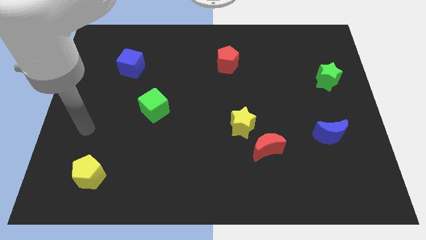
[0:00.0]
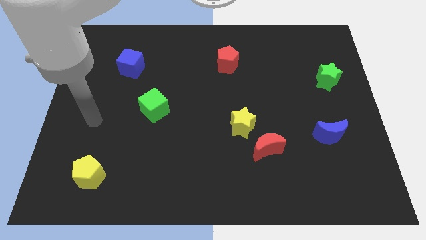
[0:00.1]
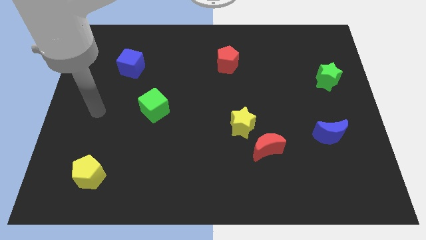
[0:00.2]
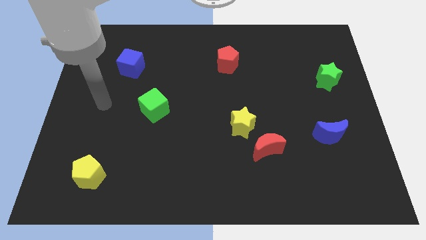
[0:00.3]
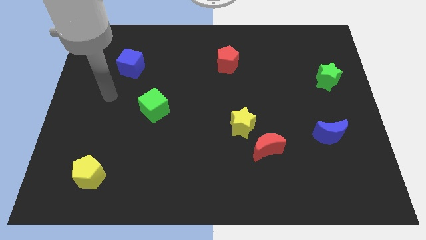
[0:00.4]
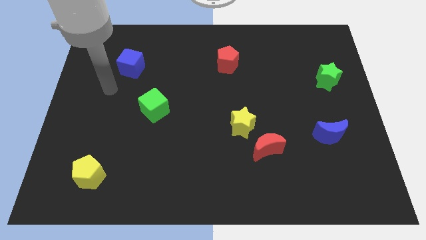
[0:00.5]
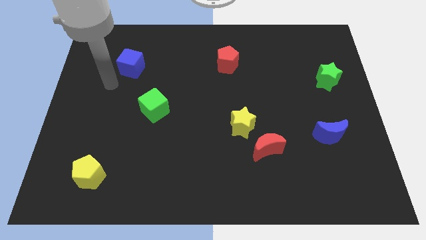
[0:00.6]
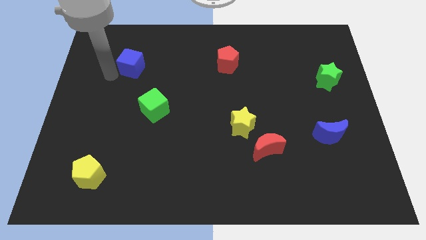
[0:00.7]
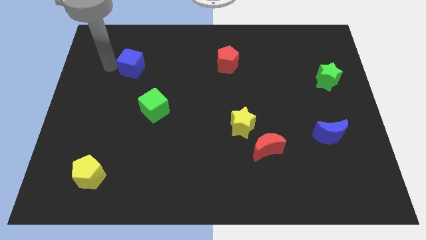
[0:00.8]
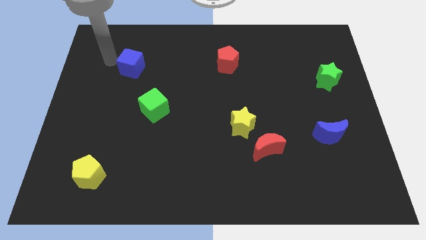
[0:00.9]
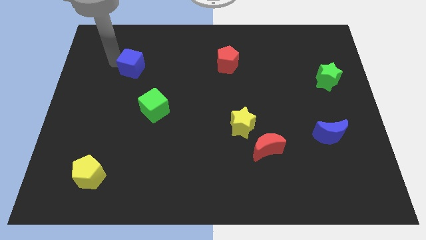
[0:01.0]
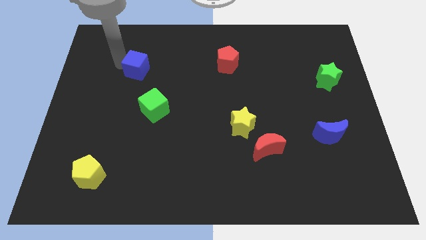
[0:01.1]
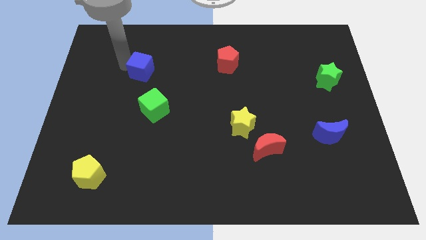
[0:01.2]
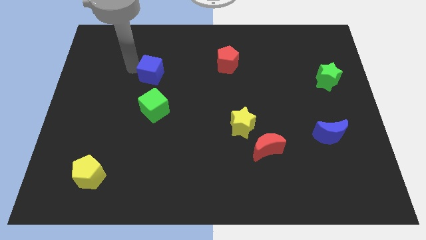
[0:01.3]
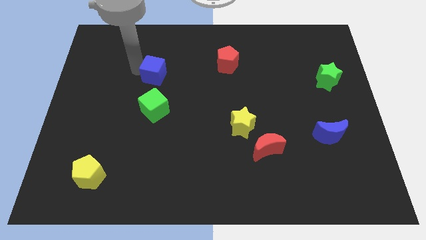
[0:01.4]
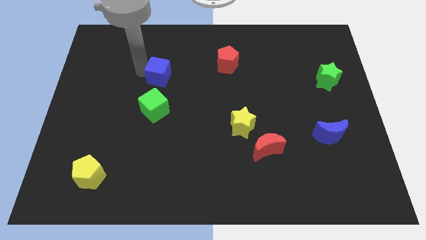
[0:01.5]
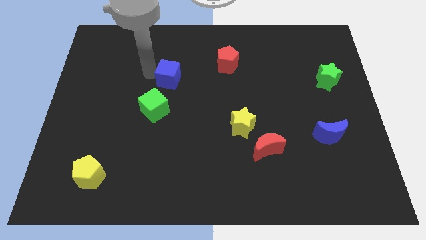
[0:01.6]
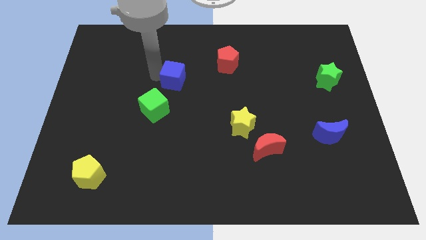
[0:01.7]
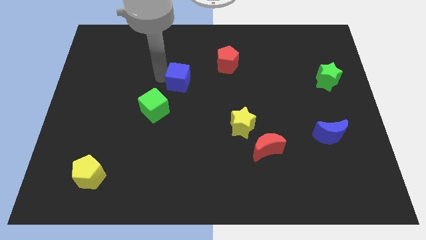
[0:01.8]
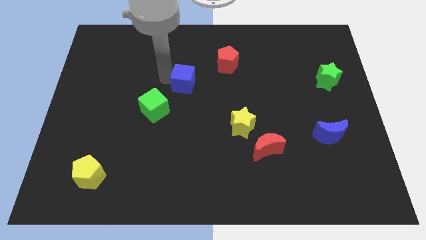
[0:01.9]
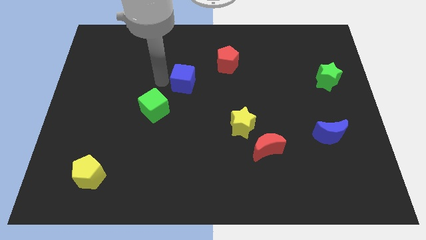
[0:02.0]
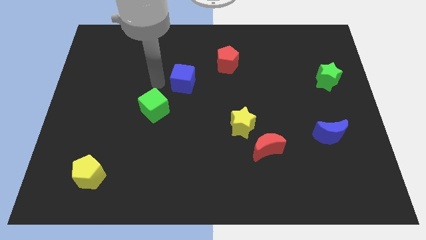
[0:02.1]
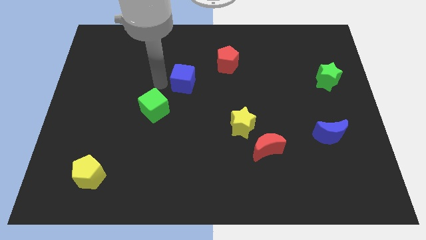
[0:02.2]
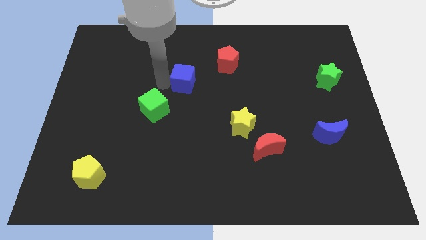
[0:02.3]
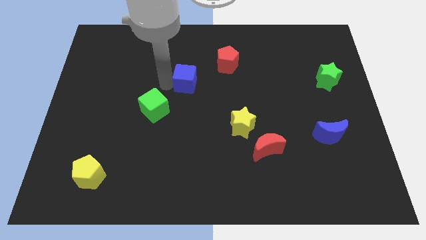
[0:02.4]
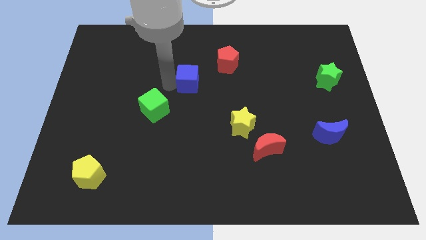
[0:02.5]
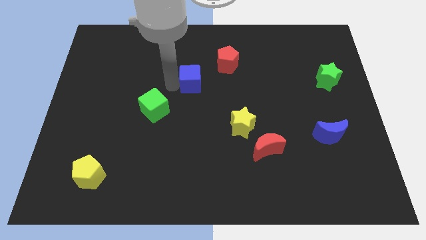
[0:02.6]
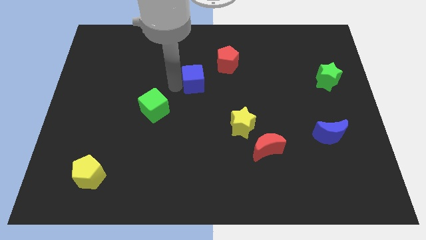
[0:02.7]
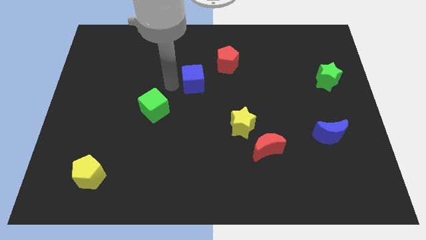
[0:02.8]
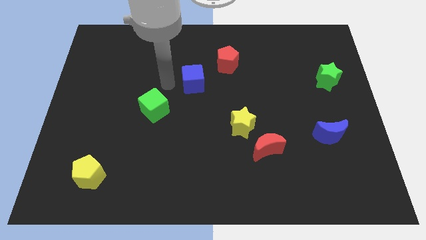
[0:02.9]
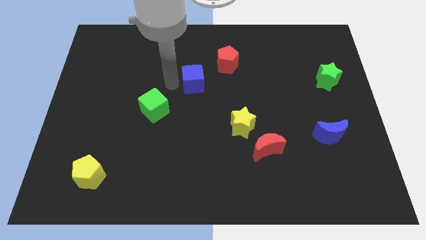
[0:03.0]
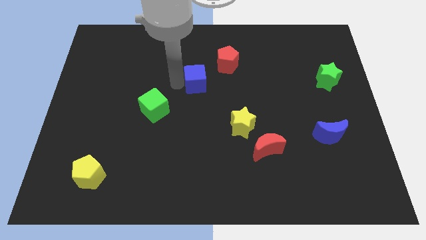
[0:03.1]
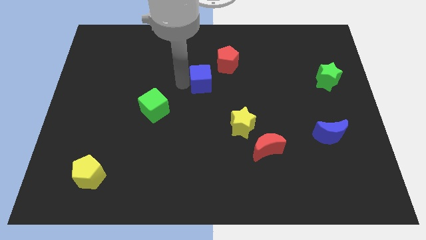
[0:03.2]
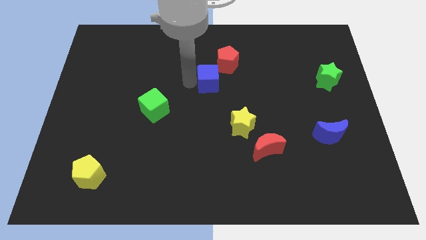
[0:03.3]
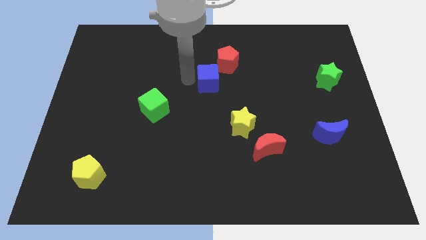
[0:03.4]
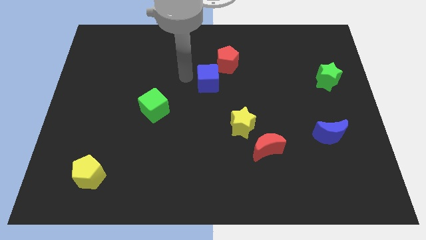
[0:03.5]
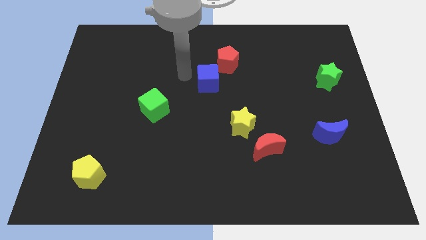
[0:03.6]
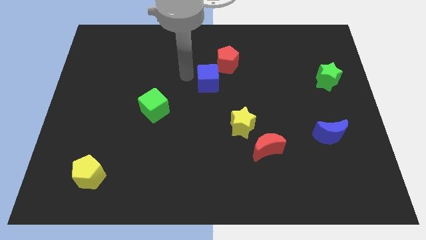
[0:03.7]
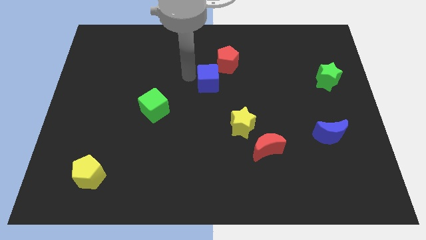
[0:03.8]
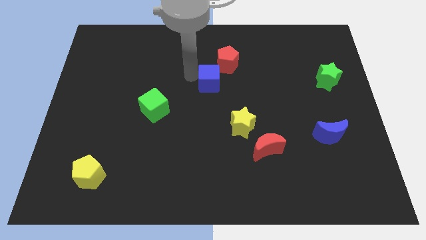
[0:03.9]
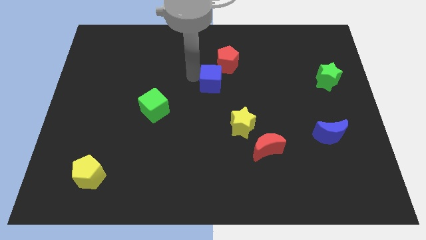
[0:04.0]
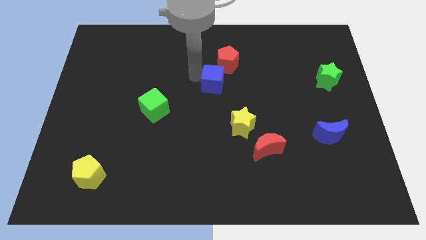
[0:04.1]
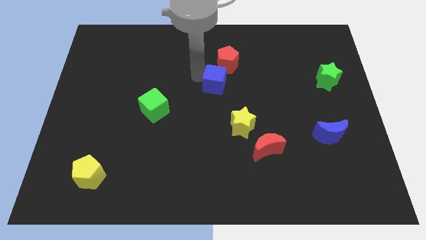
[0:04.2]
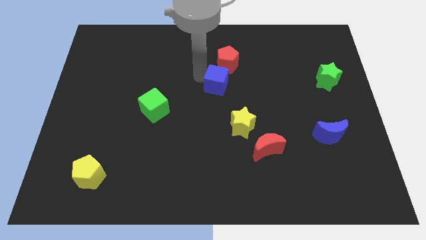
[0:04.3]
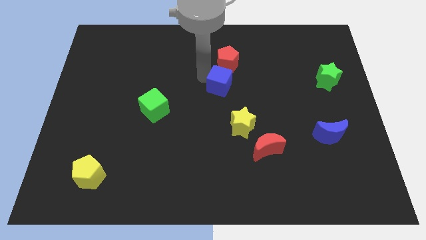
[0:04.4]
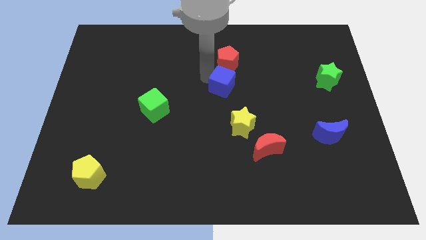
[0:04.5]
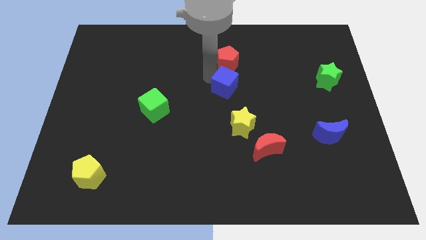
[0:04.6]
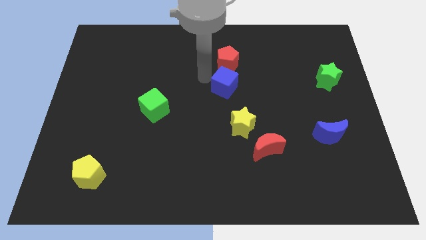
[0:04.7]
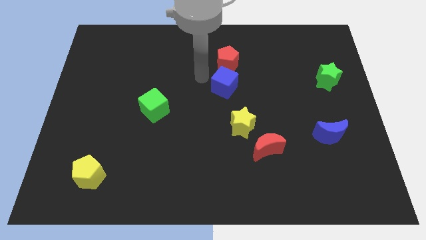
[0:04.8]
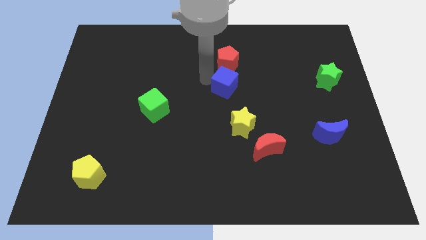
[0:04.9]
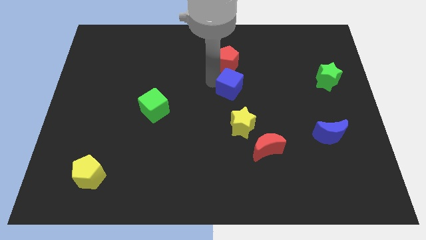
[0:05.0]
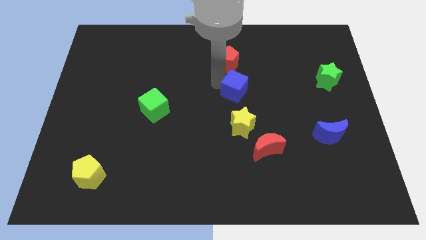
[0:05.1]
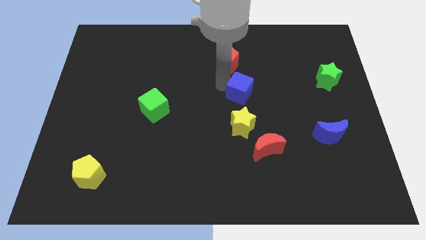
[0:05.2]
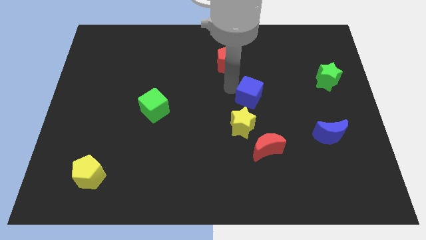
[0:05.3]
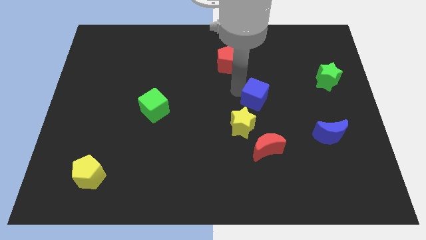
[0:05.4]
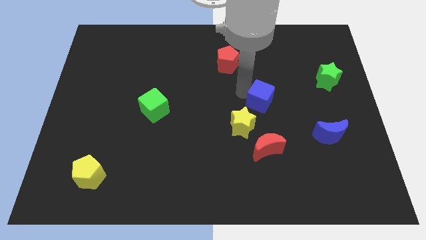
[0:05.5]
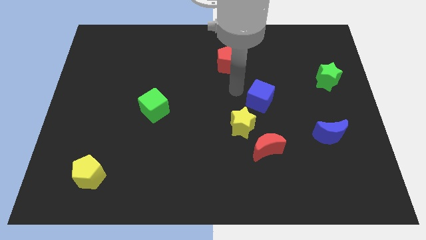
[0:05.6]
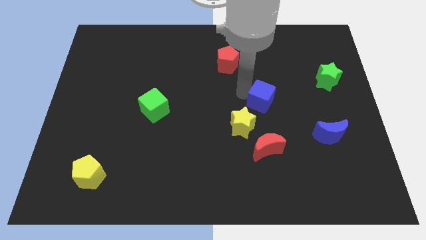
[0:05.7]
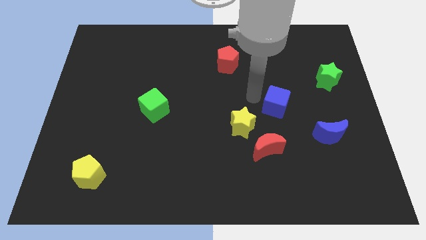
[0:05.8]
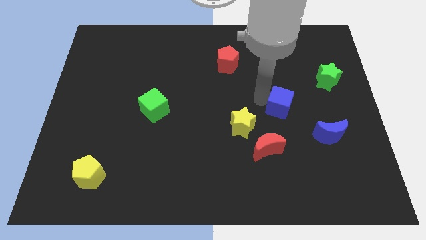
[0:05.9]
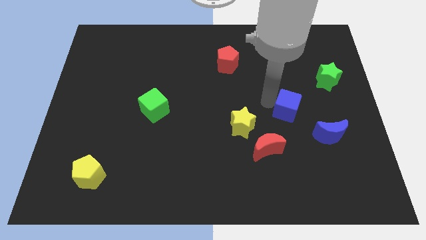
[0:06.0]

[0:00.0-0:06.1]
slide the blue cube to the top left of the blue moon

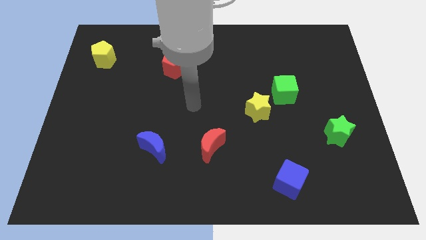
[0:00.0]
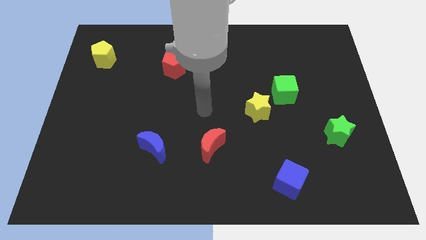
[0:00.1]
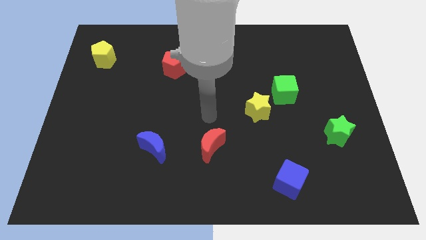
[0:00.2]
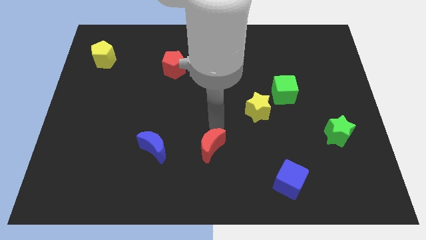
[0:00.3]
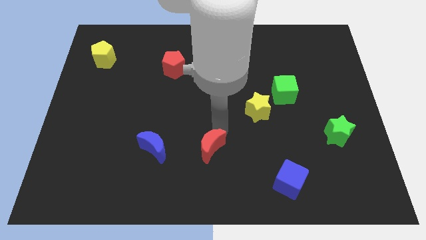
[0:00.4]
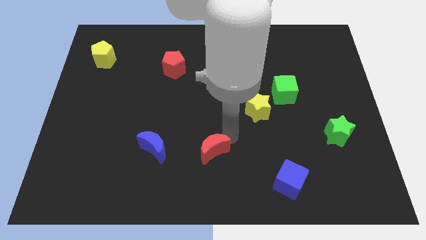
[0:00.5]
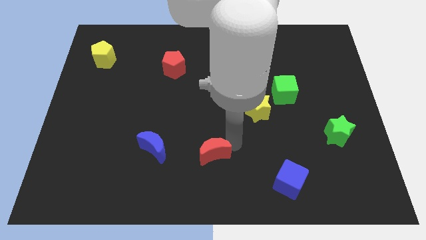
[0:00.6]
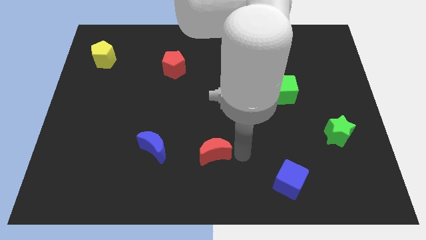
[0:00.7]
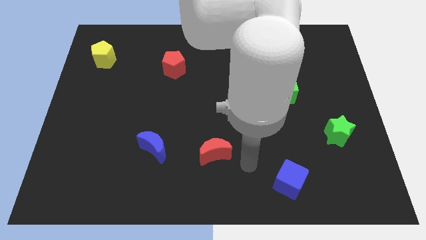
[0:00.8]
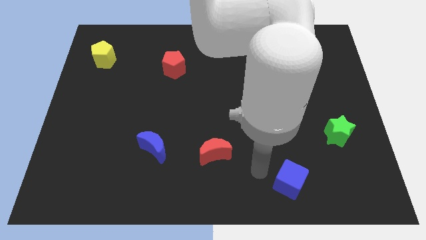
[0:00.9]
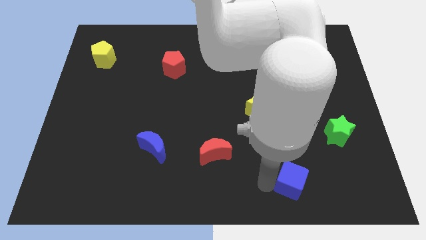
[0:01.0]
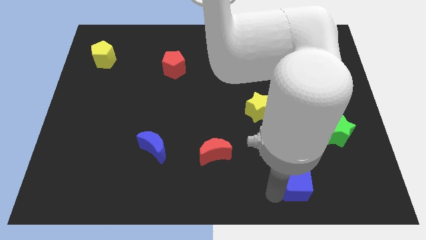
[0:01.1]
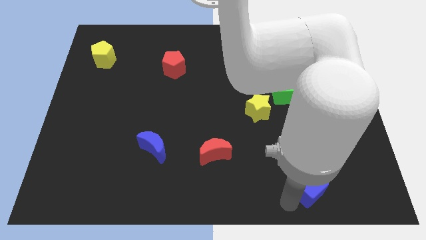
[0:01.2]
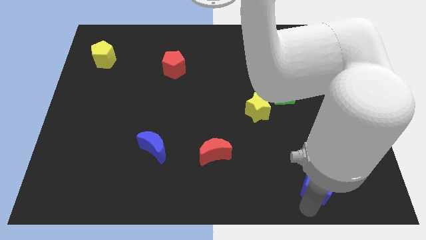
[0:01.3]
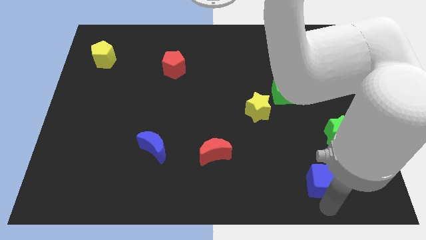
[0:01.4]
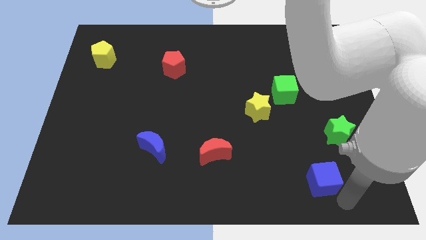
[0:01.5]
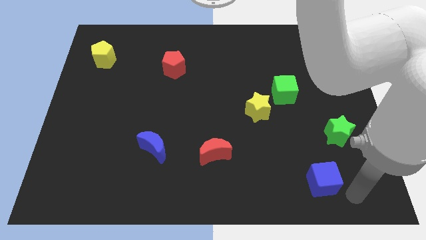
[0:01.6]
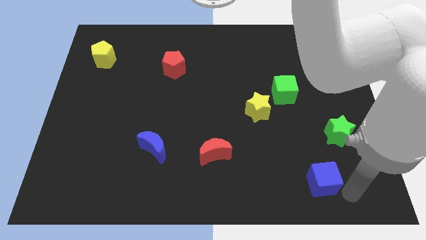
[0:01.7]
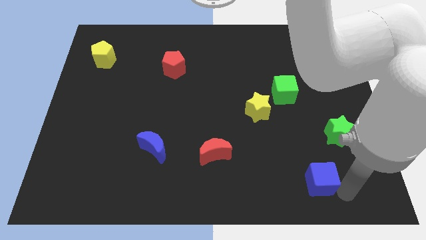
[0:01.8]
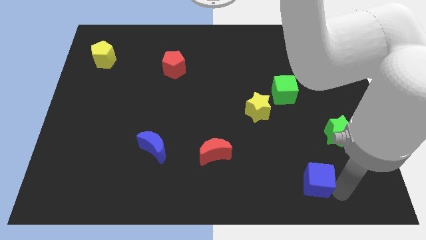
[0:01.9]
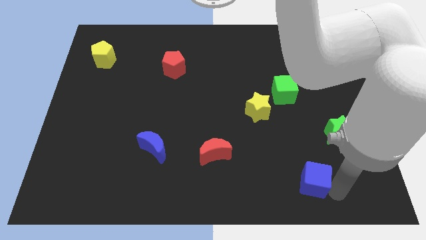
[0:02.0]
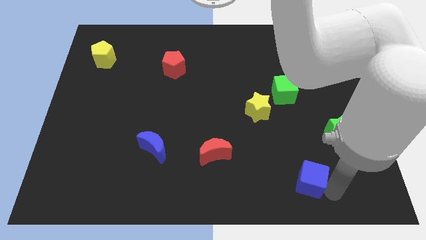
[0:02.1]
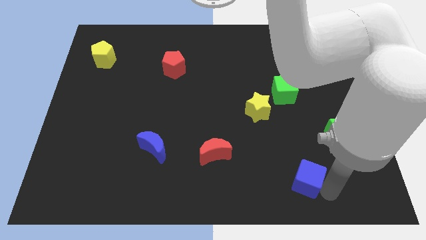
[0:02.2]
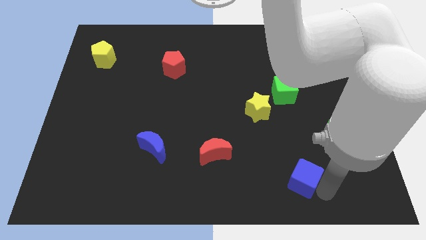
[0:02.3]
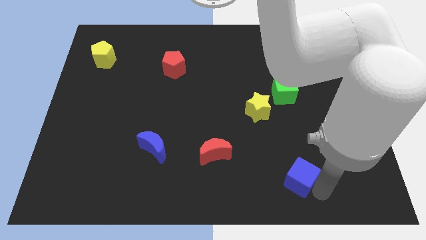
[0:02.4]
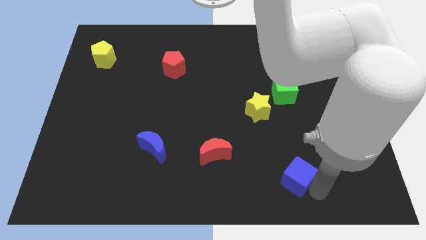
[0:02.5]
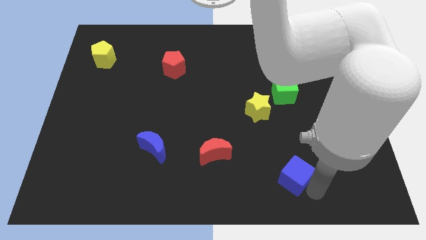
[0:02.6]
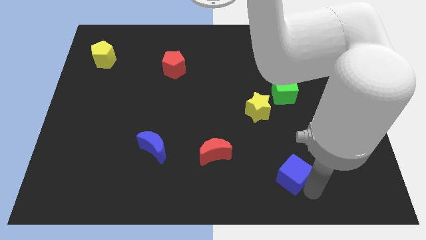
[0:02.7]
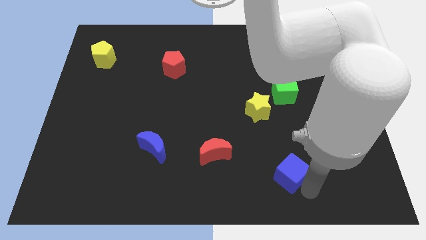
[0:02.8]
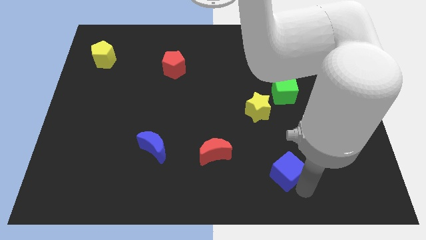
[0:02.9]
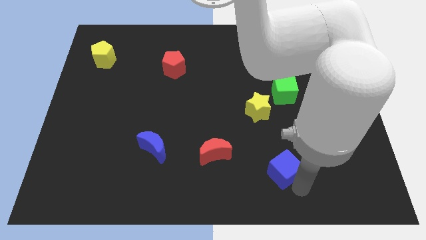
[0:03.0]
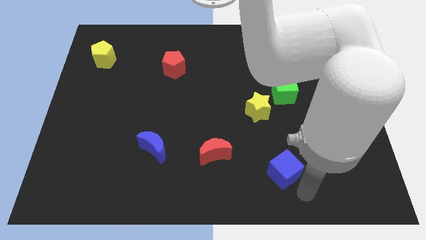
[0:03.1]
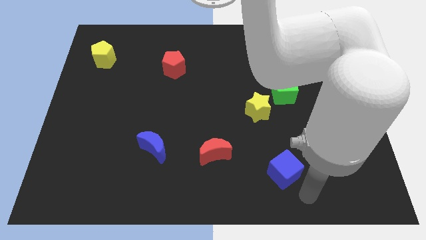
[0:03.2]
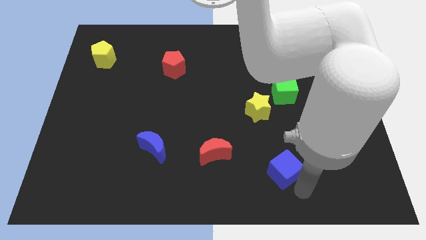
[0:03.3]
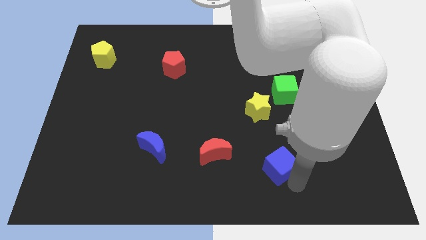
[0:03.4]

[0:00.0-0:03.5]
move the blue cube to the bottom of the yellow star
